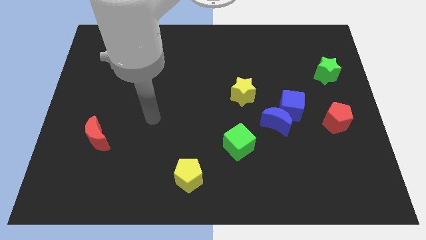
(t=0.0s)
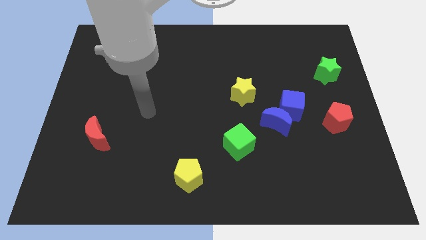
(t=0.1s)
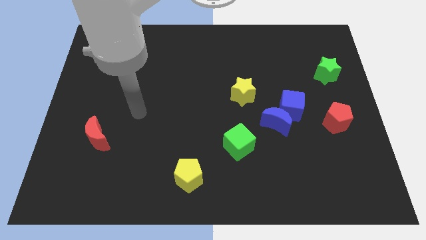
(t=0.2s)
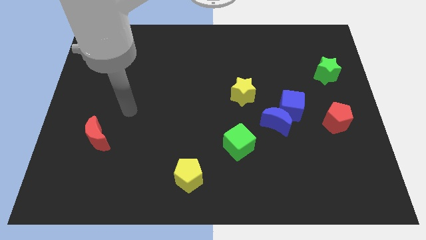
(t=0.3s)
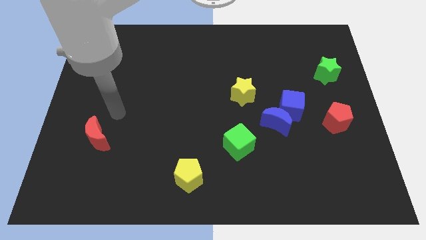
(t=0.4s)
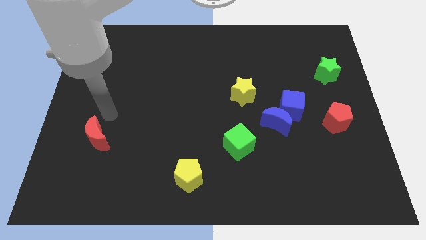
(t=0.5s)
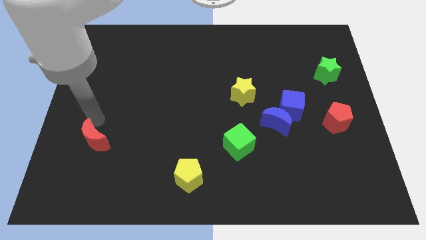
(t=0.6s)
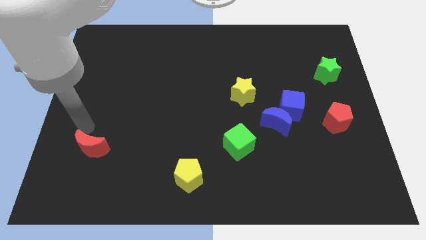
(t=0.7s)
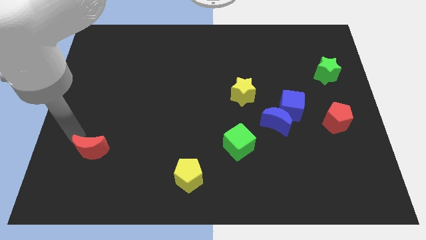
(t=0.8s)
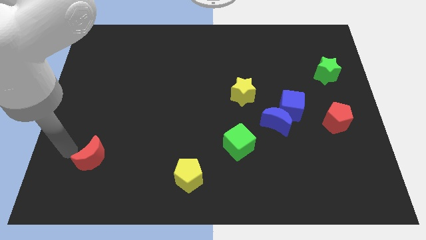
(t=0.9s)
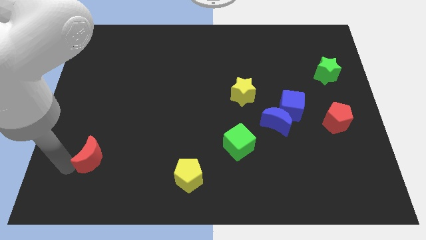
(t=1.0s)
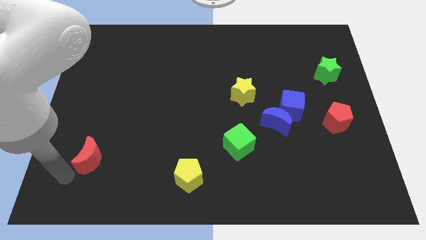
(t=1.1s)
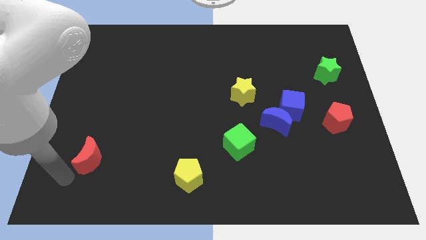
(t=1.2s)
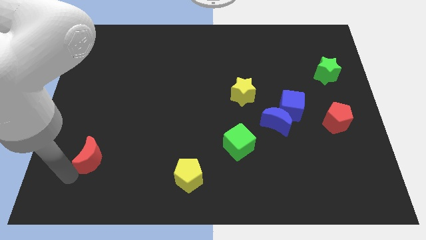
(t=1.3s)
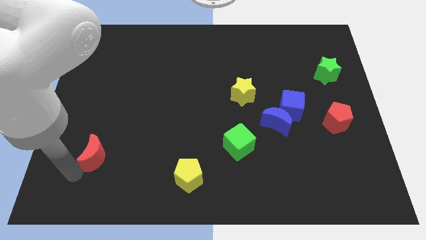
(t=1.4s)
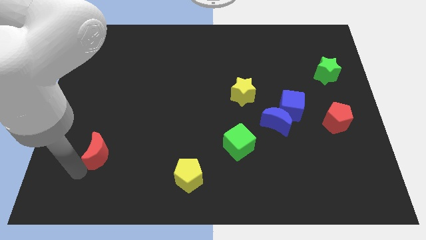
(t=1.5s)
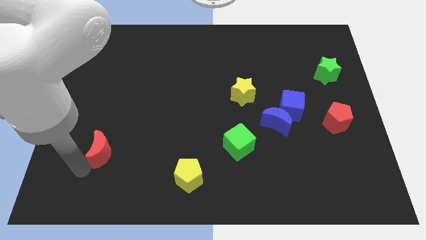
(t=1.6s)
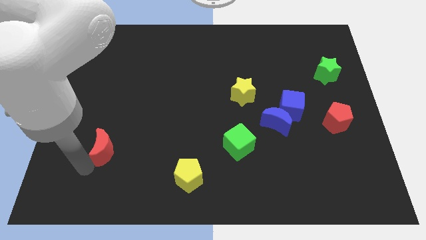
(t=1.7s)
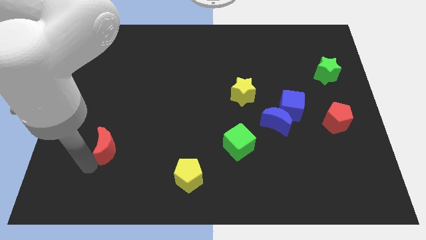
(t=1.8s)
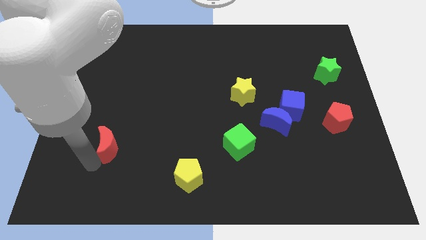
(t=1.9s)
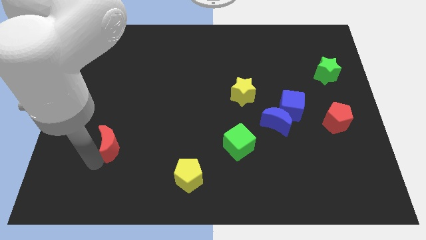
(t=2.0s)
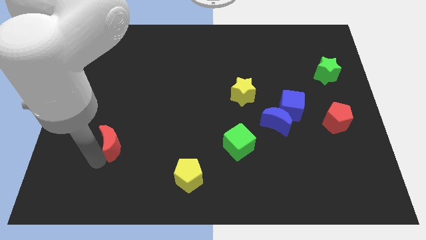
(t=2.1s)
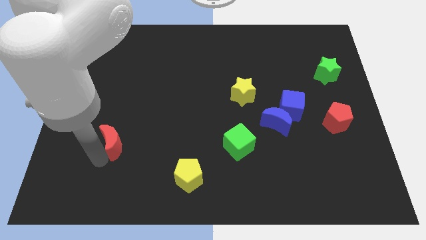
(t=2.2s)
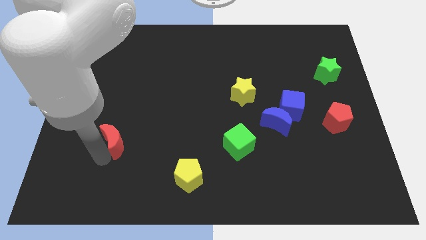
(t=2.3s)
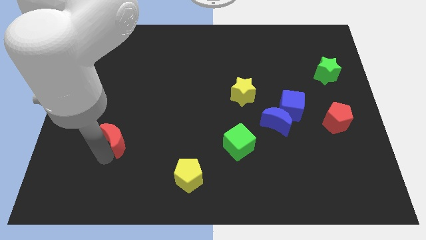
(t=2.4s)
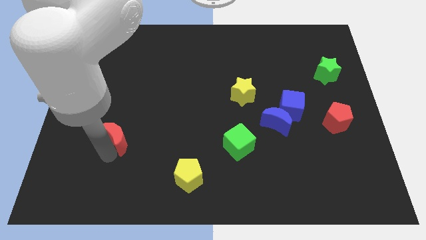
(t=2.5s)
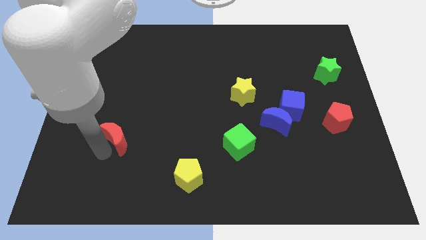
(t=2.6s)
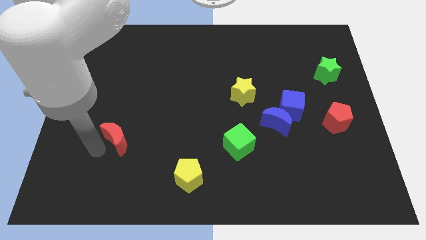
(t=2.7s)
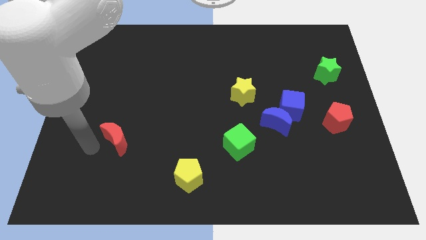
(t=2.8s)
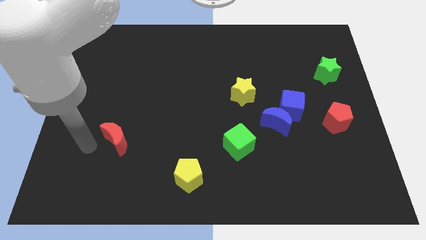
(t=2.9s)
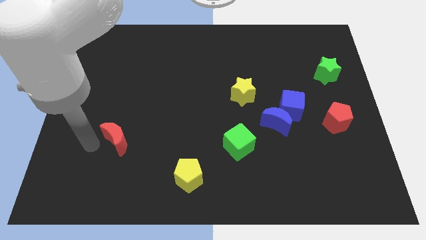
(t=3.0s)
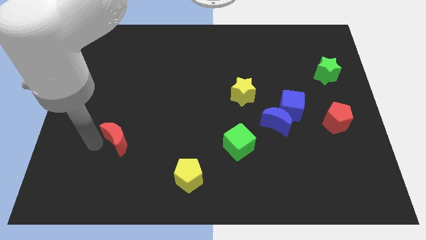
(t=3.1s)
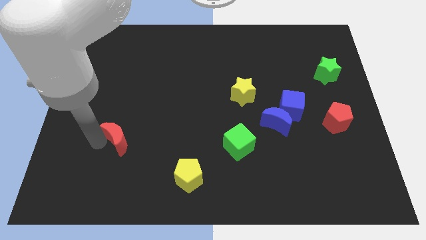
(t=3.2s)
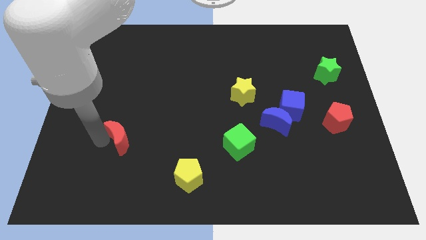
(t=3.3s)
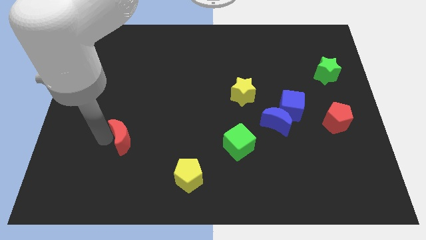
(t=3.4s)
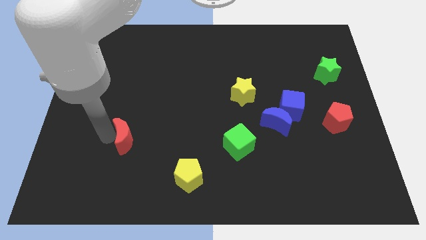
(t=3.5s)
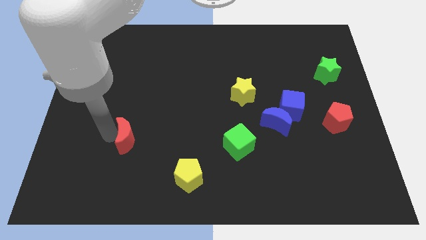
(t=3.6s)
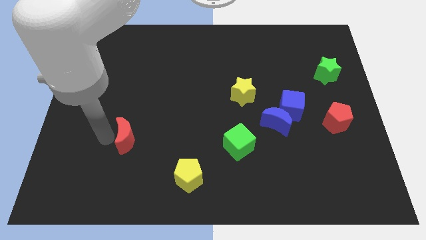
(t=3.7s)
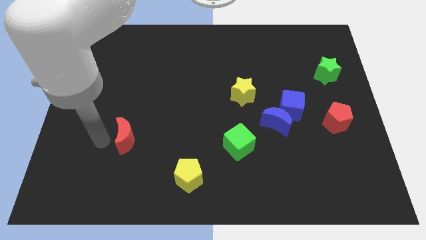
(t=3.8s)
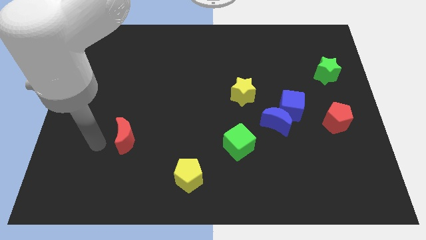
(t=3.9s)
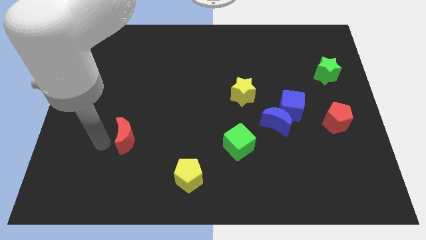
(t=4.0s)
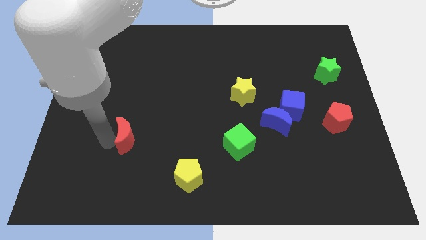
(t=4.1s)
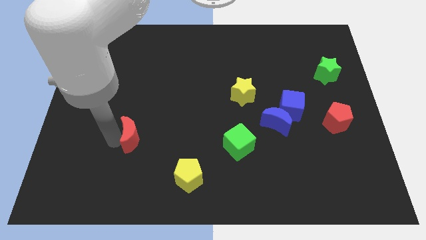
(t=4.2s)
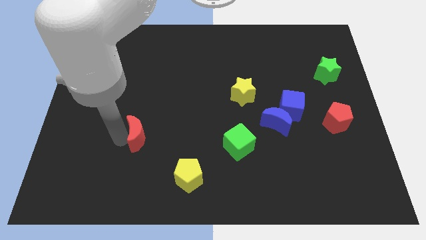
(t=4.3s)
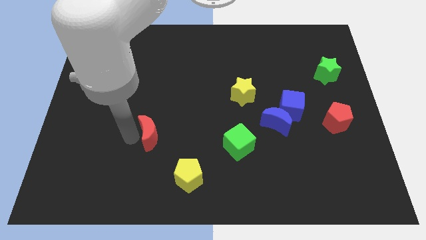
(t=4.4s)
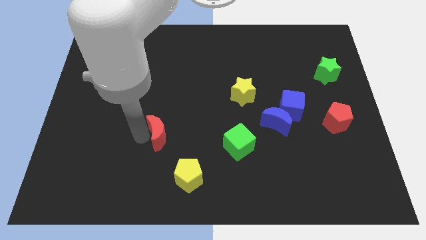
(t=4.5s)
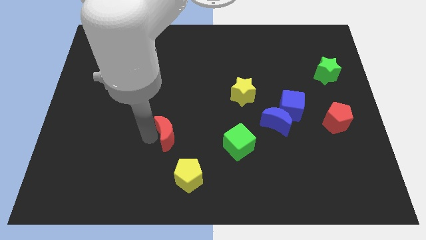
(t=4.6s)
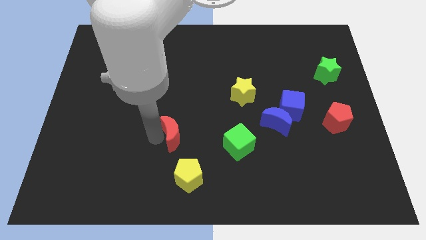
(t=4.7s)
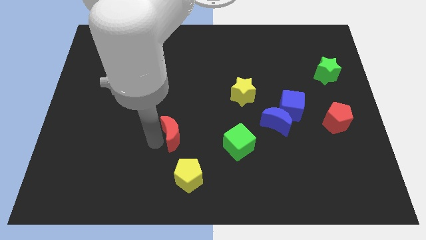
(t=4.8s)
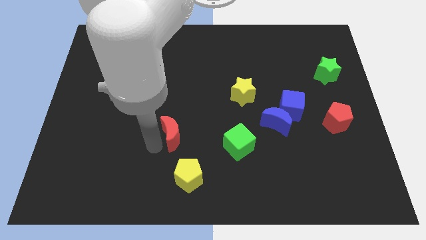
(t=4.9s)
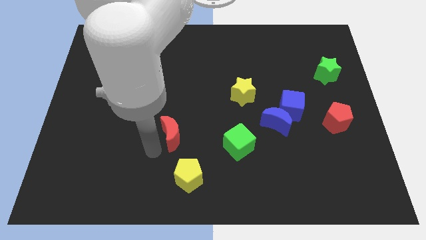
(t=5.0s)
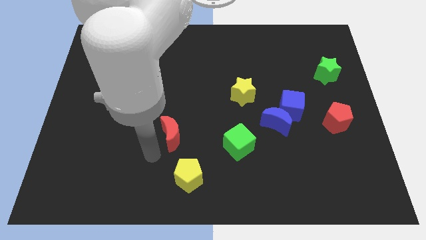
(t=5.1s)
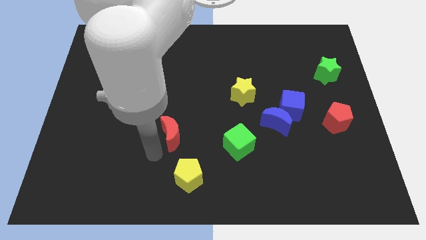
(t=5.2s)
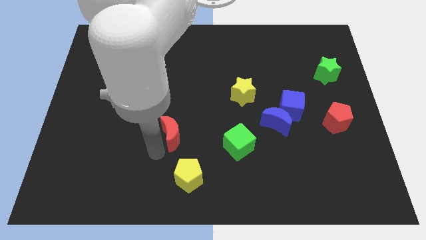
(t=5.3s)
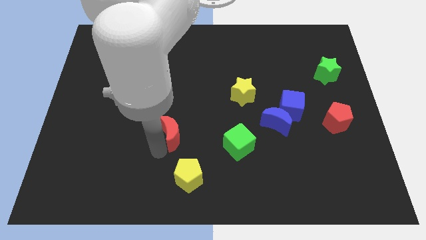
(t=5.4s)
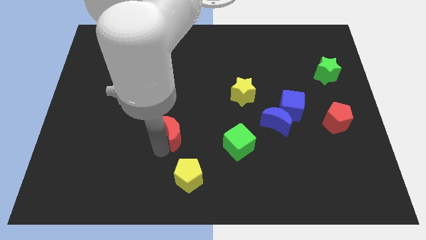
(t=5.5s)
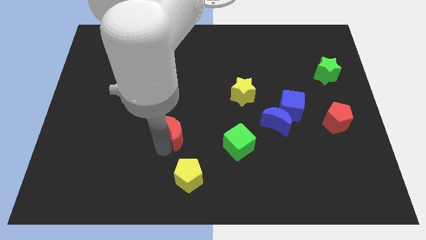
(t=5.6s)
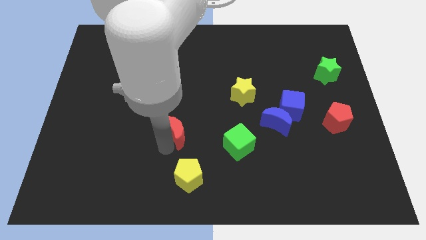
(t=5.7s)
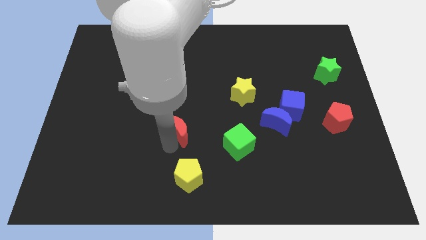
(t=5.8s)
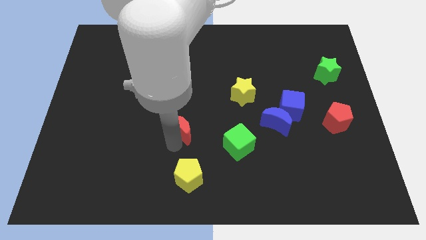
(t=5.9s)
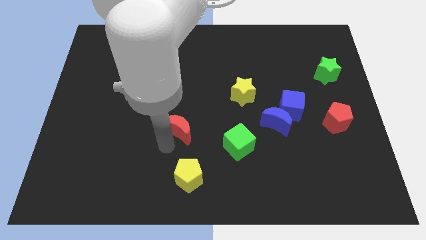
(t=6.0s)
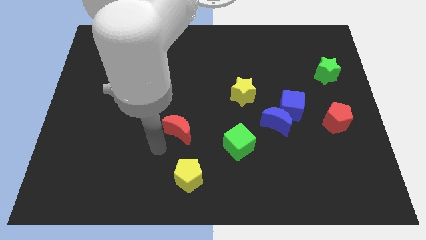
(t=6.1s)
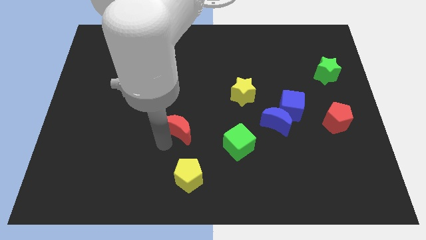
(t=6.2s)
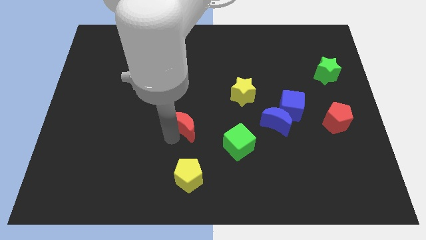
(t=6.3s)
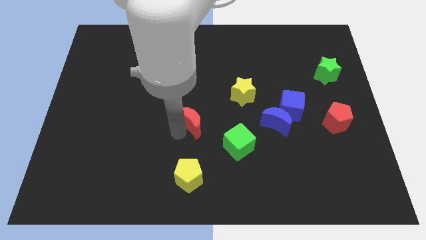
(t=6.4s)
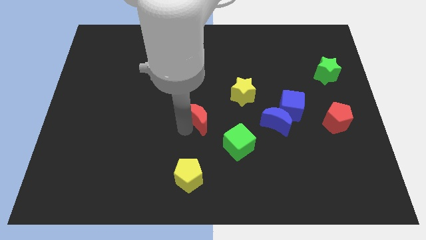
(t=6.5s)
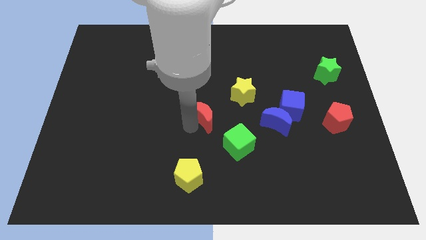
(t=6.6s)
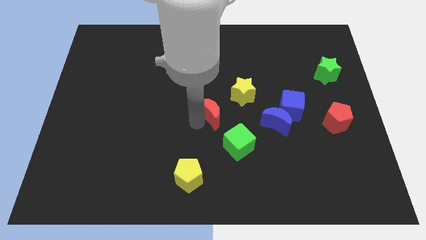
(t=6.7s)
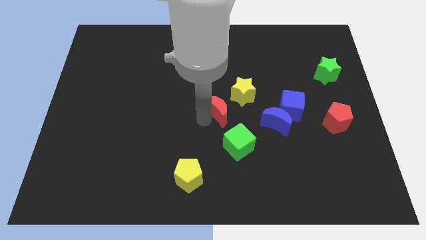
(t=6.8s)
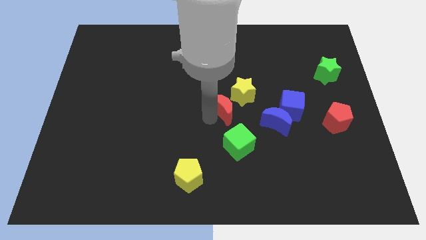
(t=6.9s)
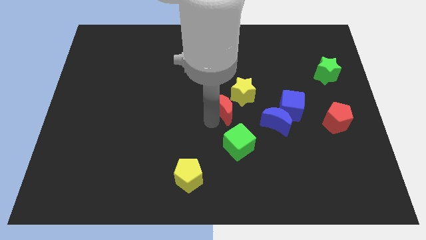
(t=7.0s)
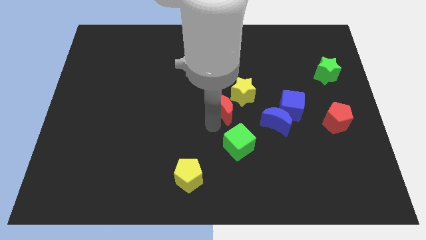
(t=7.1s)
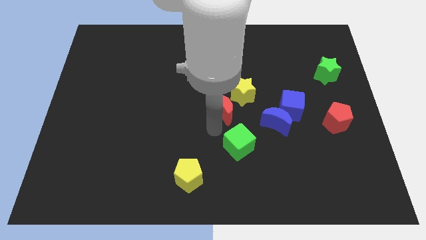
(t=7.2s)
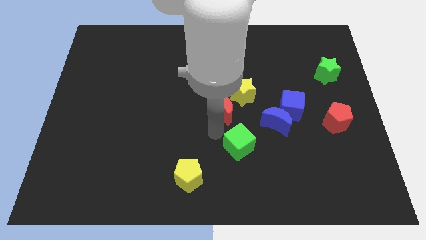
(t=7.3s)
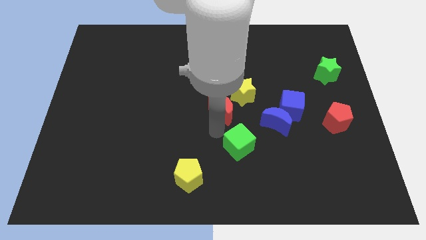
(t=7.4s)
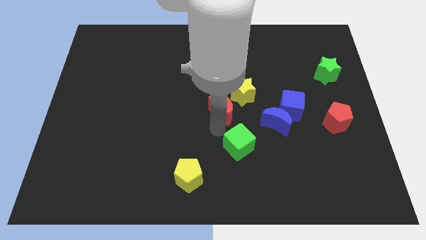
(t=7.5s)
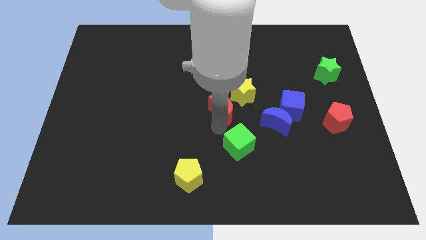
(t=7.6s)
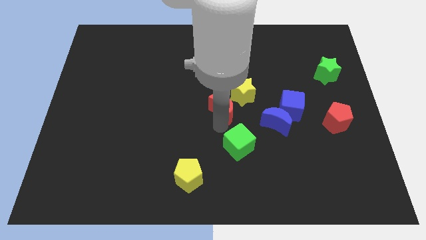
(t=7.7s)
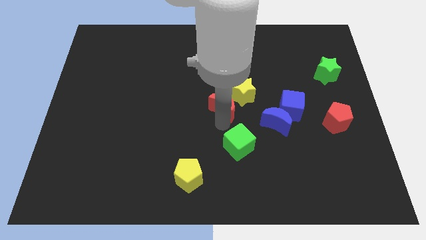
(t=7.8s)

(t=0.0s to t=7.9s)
move the red moon towards the yellow star
